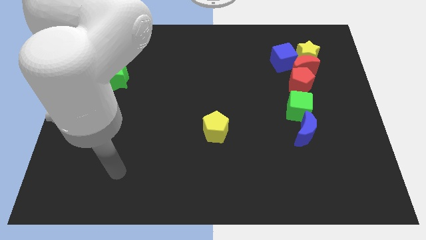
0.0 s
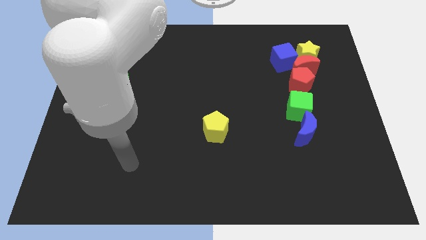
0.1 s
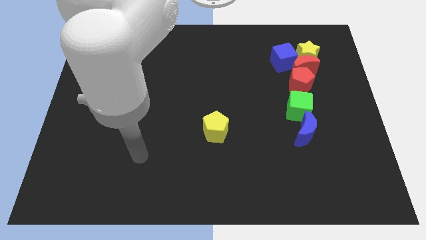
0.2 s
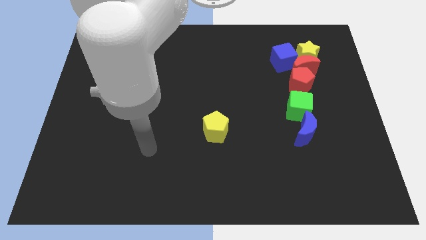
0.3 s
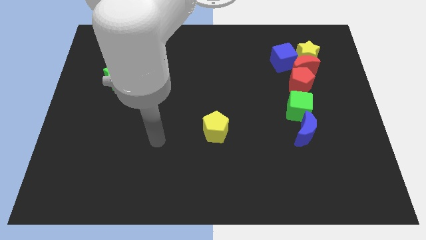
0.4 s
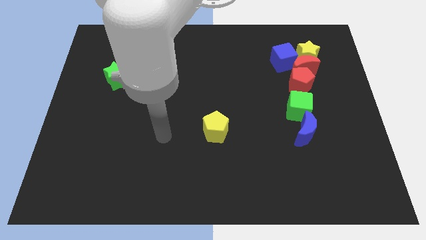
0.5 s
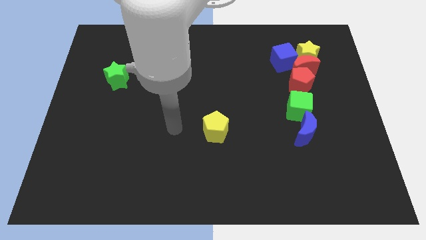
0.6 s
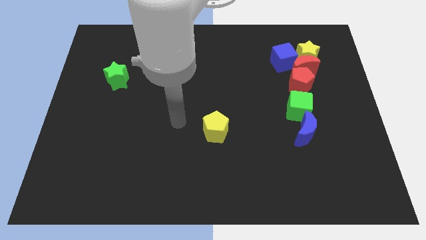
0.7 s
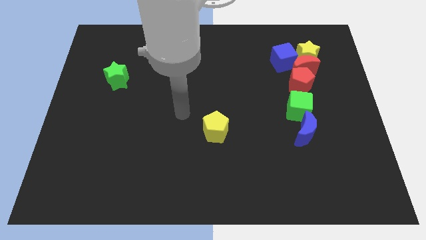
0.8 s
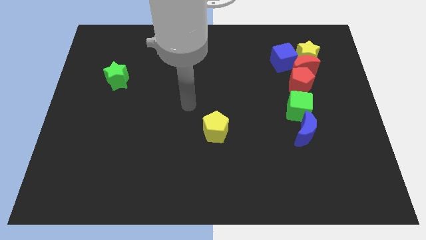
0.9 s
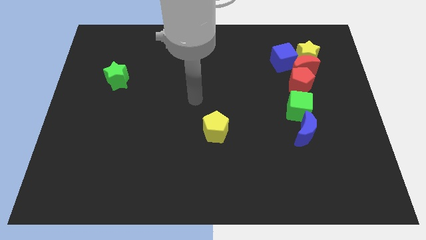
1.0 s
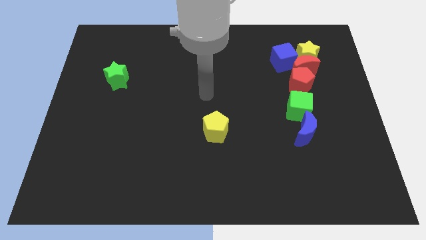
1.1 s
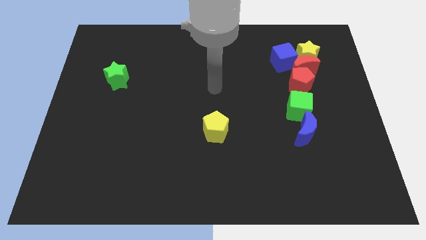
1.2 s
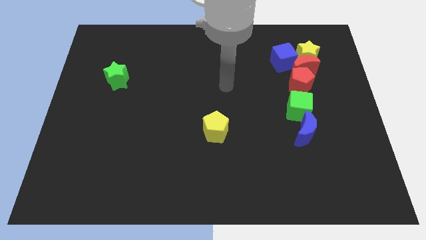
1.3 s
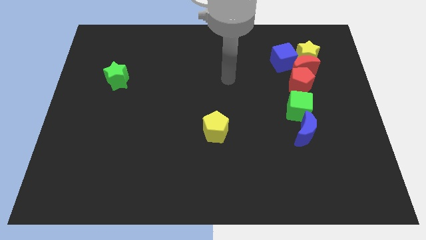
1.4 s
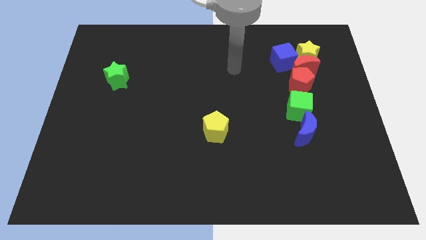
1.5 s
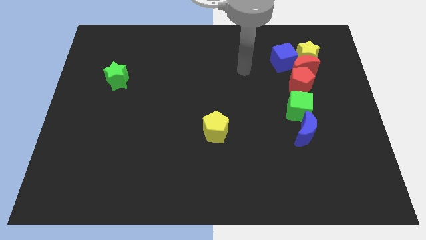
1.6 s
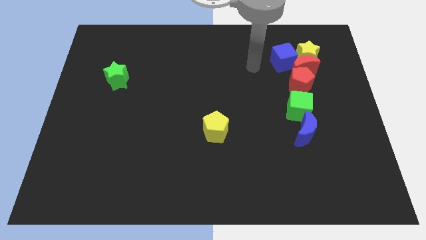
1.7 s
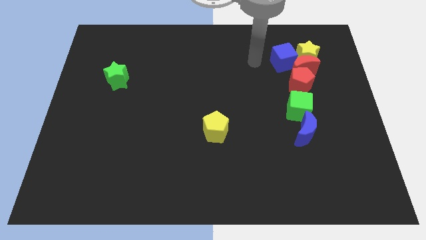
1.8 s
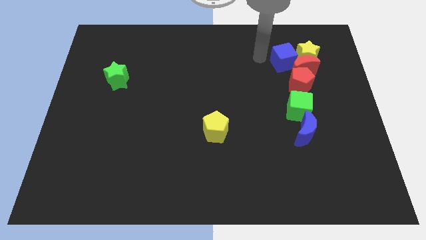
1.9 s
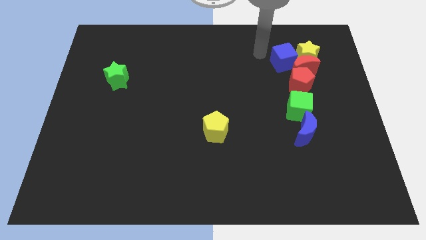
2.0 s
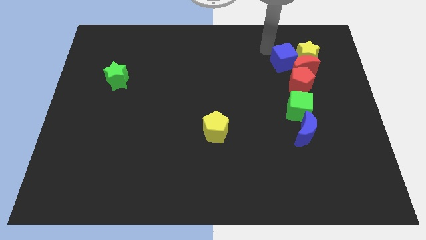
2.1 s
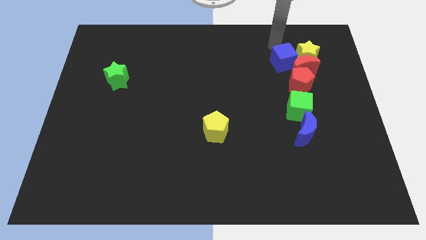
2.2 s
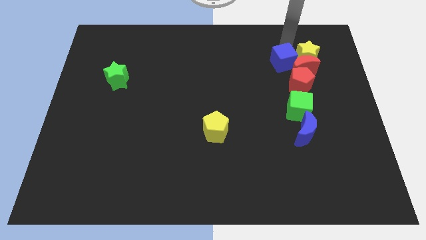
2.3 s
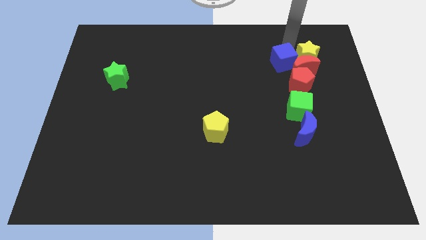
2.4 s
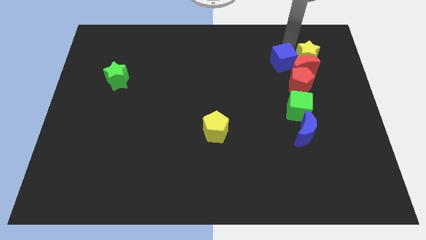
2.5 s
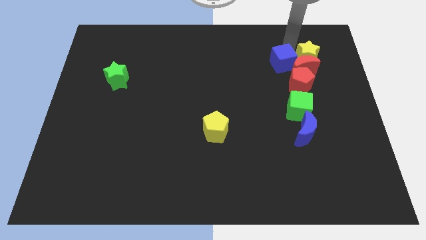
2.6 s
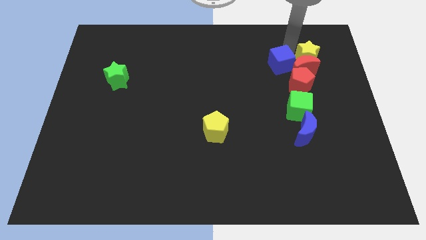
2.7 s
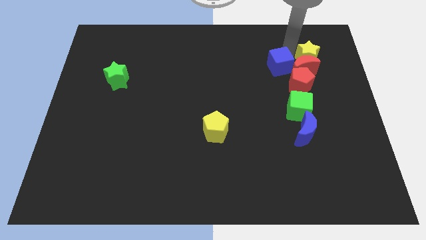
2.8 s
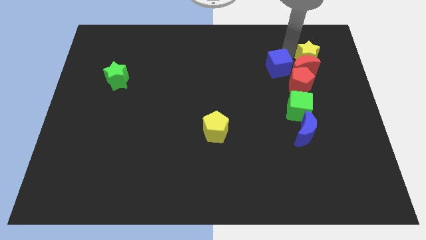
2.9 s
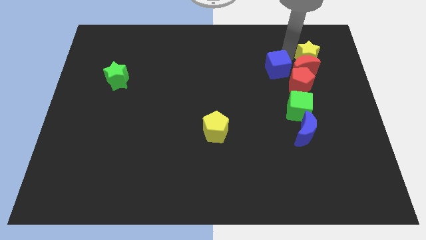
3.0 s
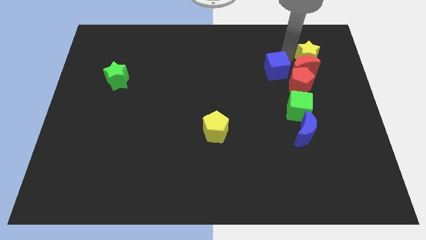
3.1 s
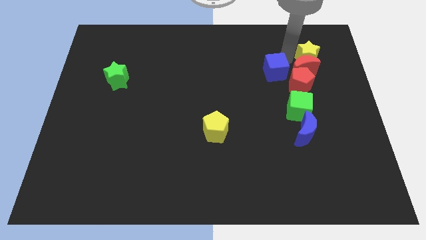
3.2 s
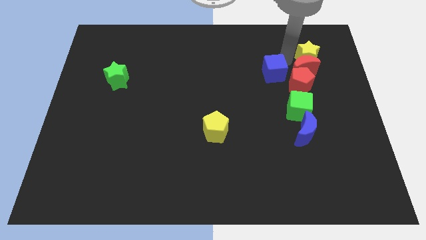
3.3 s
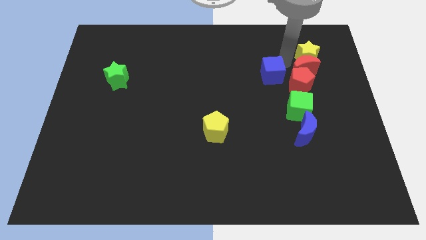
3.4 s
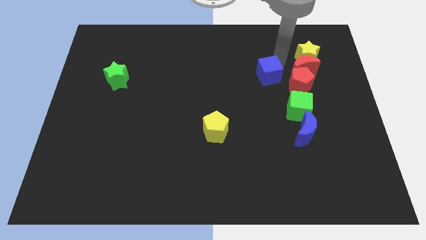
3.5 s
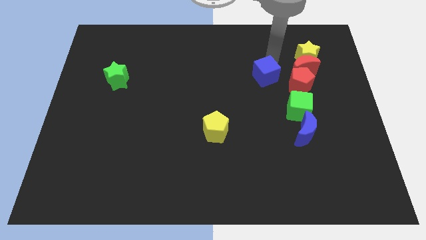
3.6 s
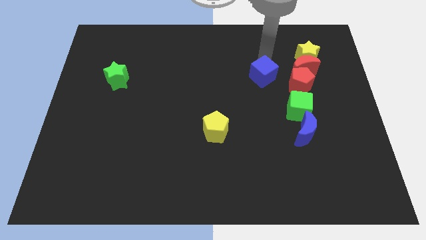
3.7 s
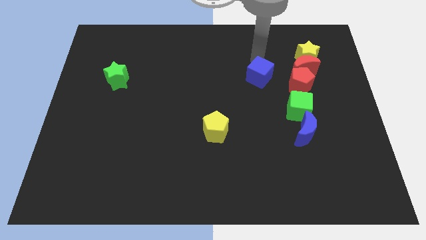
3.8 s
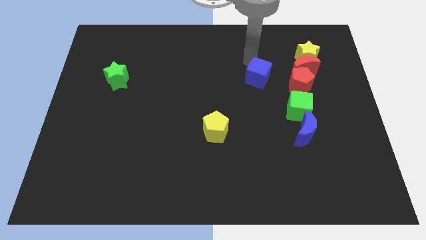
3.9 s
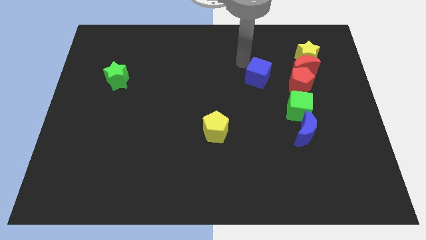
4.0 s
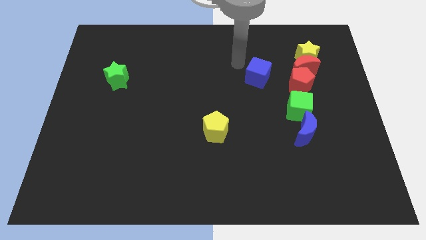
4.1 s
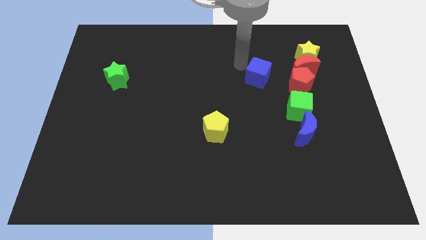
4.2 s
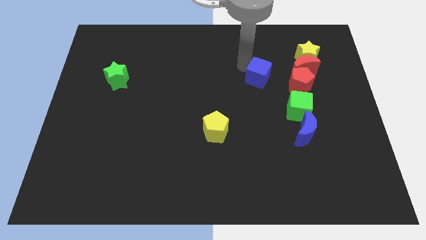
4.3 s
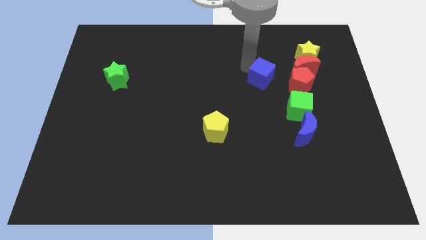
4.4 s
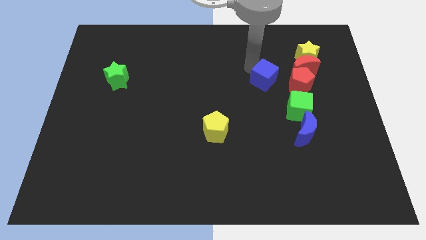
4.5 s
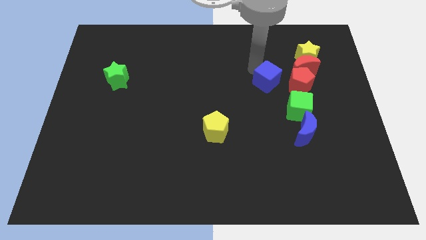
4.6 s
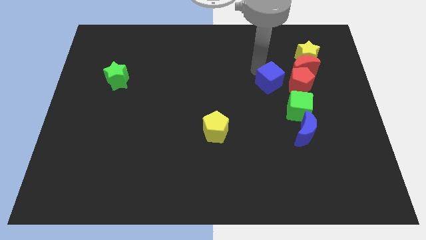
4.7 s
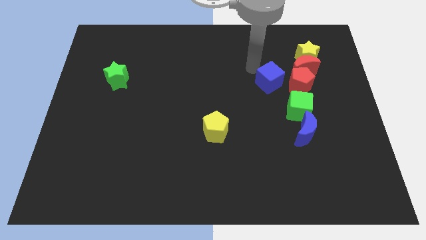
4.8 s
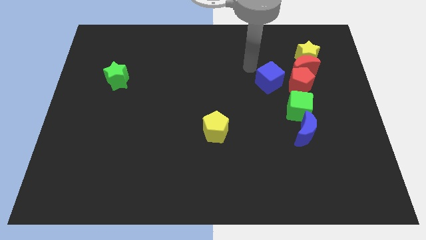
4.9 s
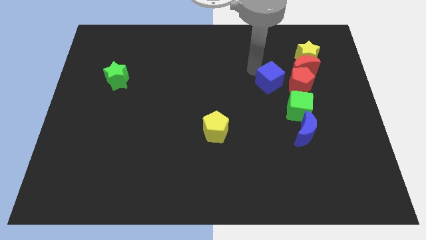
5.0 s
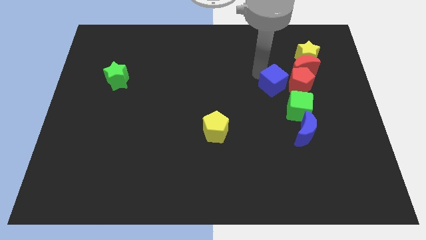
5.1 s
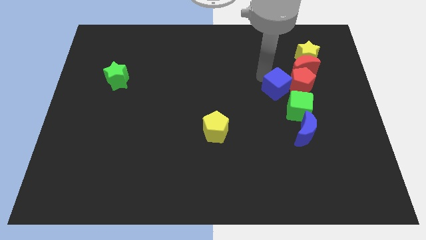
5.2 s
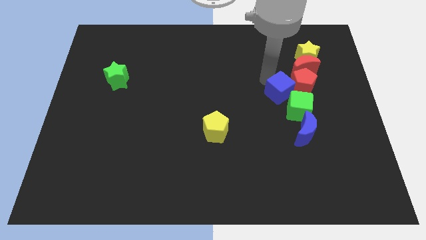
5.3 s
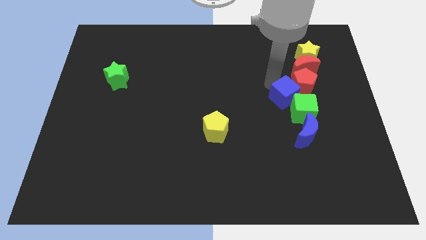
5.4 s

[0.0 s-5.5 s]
push the blue cube next to the green cube

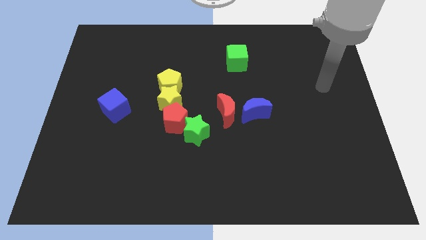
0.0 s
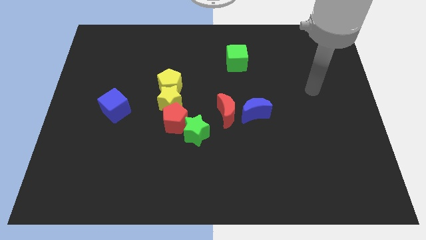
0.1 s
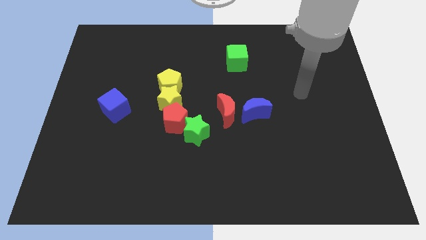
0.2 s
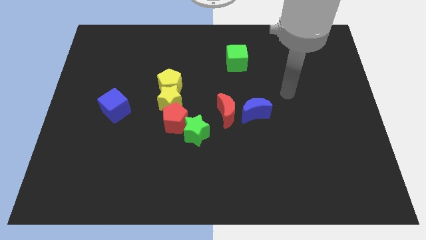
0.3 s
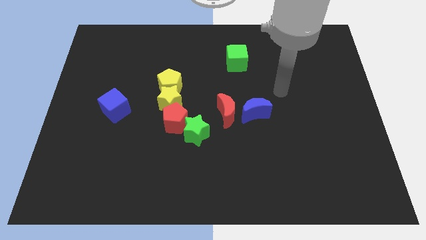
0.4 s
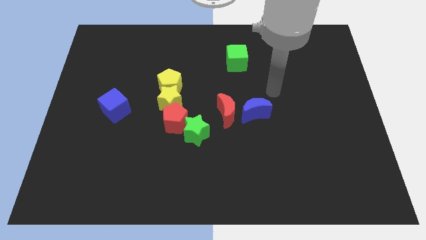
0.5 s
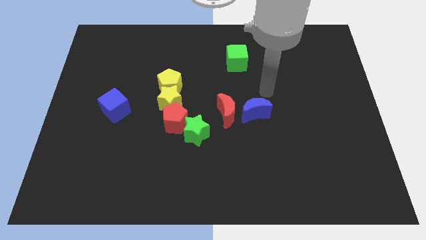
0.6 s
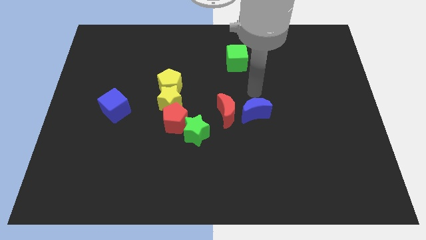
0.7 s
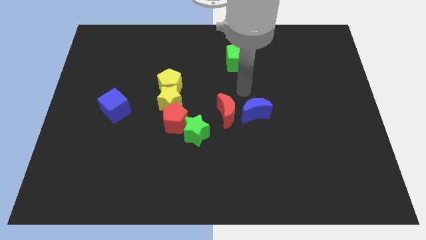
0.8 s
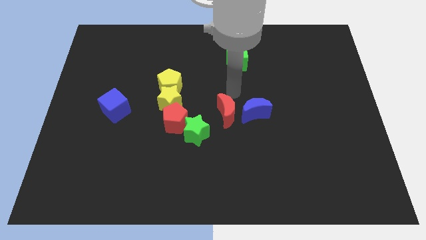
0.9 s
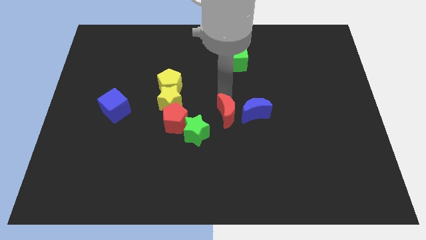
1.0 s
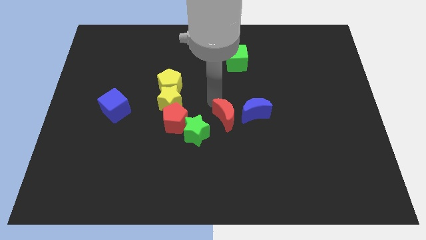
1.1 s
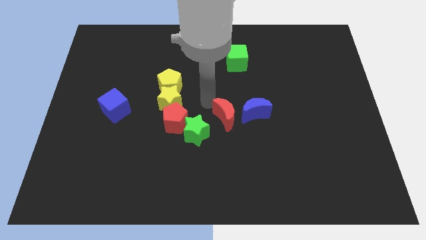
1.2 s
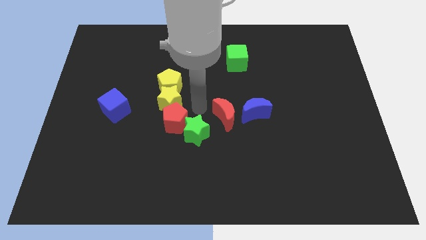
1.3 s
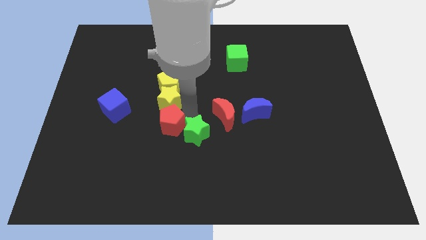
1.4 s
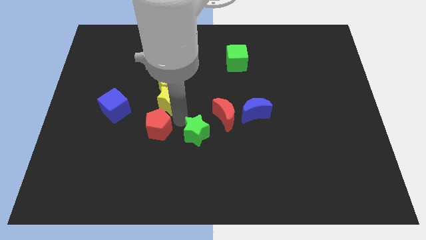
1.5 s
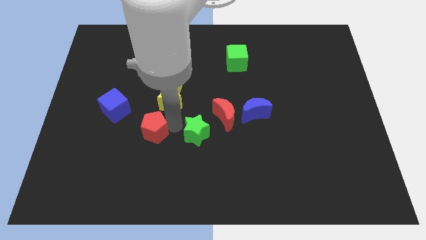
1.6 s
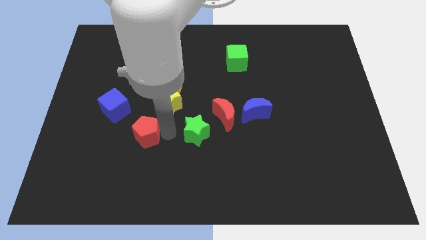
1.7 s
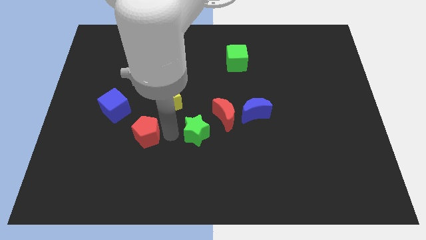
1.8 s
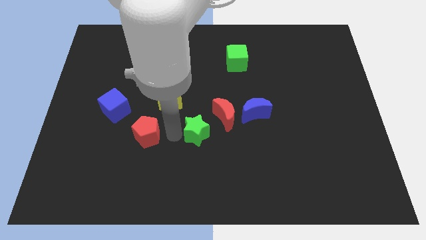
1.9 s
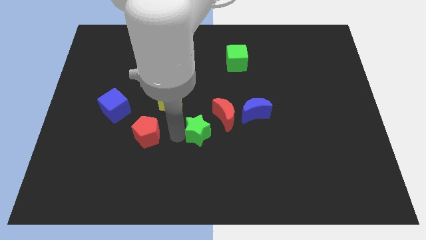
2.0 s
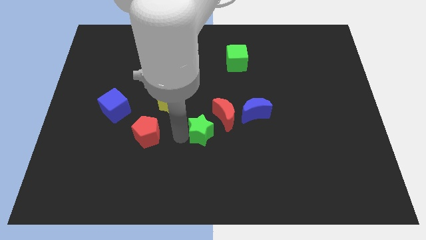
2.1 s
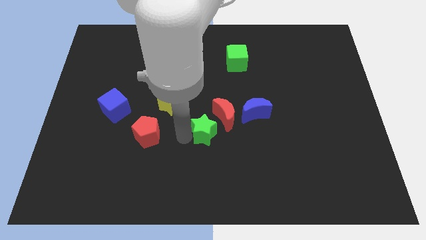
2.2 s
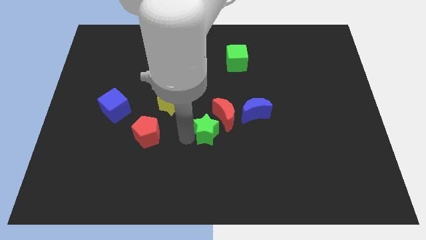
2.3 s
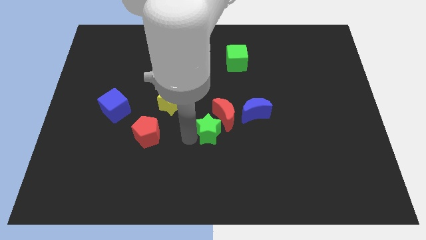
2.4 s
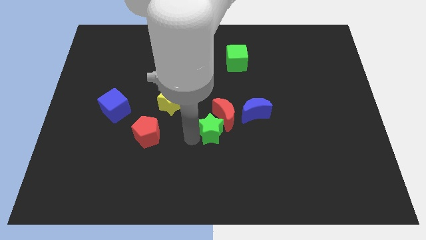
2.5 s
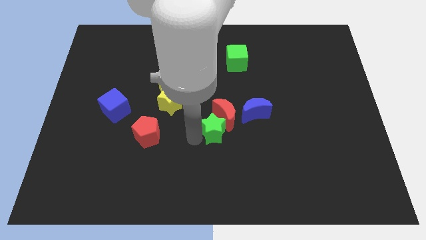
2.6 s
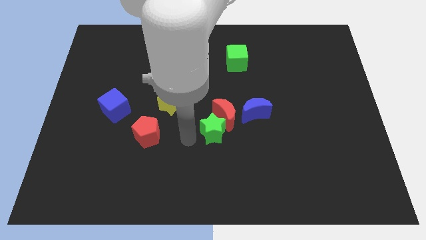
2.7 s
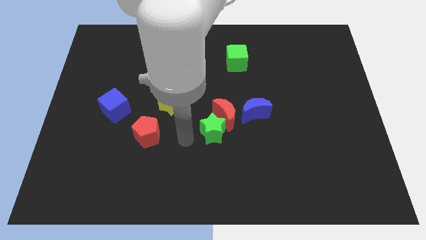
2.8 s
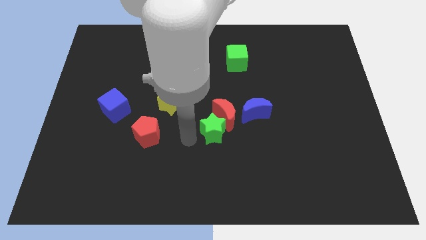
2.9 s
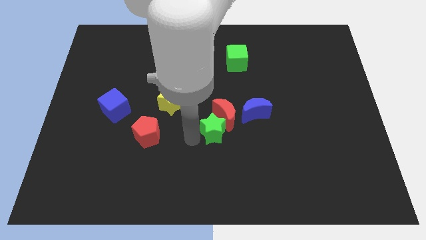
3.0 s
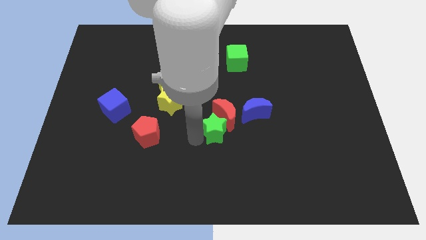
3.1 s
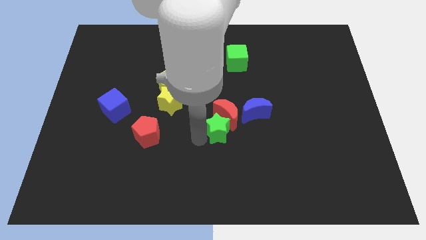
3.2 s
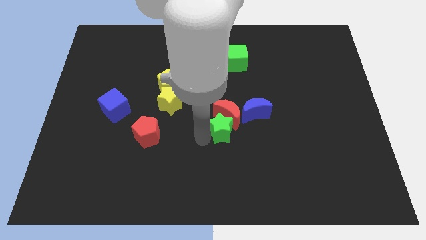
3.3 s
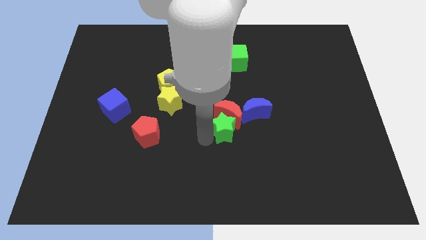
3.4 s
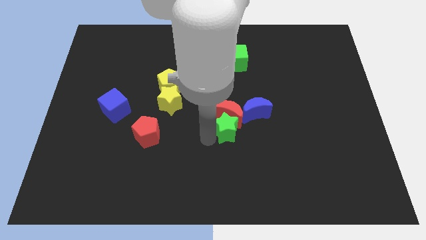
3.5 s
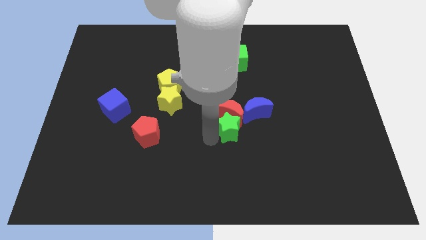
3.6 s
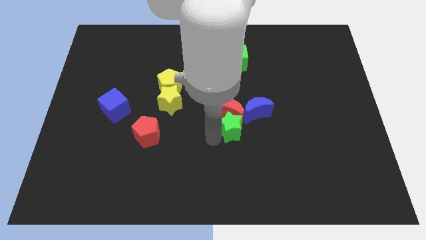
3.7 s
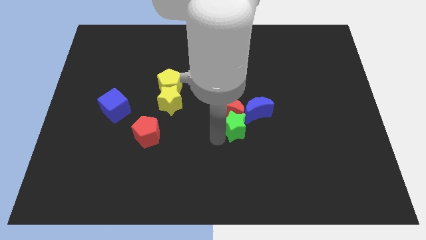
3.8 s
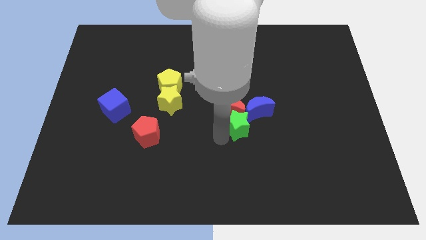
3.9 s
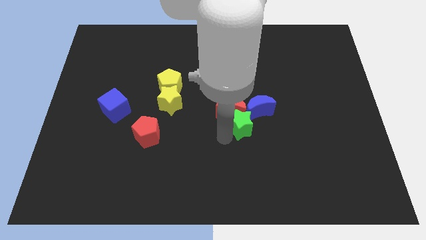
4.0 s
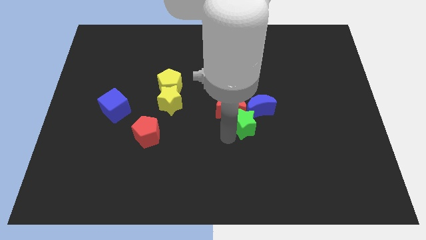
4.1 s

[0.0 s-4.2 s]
slide the green star next to the blue moon
